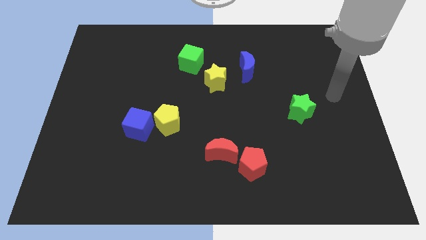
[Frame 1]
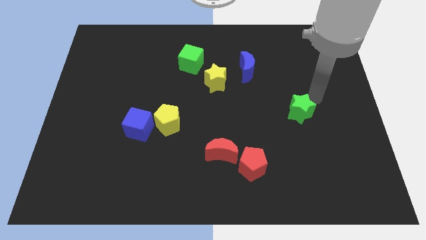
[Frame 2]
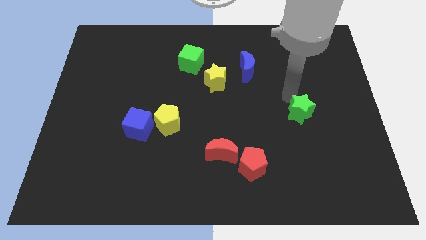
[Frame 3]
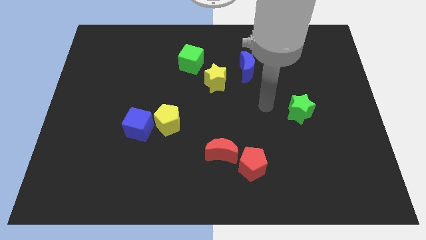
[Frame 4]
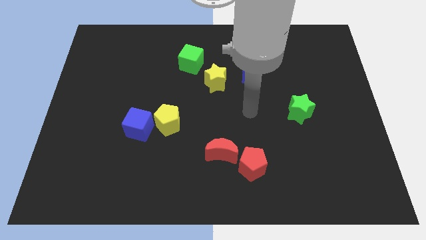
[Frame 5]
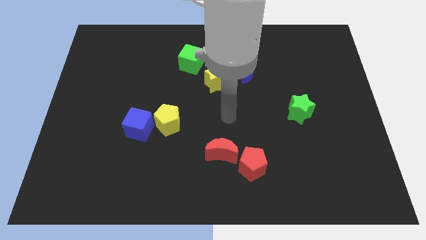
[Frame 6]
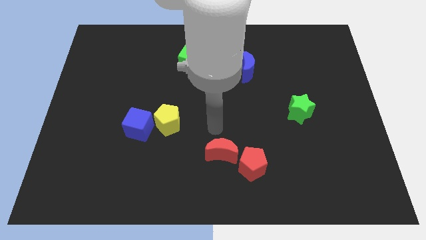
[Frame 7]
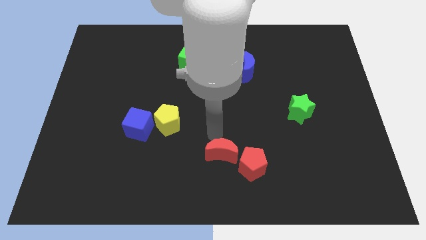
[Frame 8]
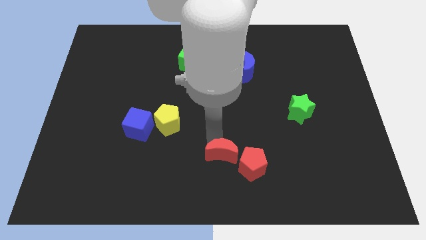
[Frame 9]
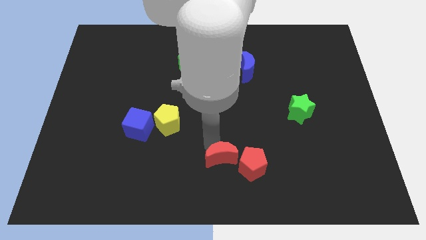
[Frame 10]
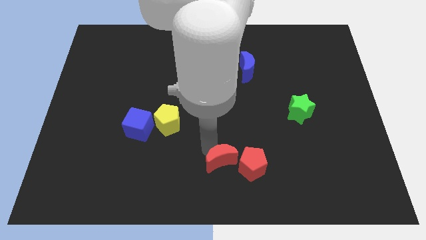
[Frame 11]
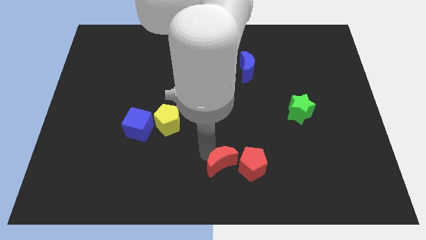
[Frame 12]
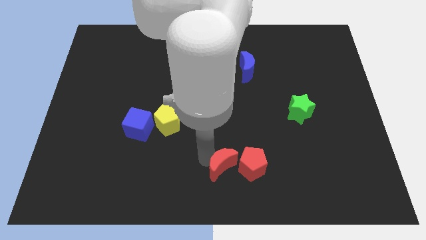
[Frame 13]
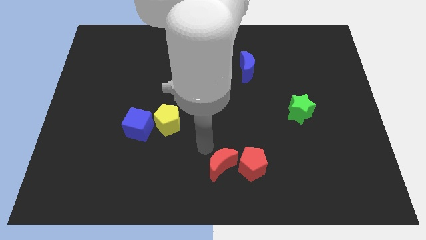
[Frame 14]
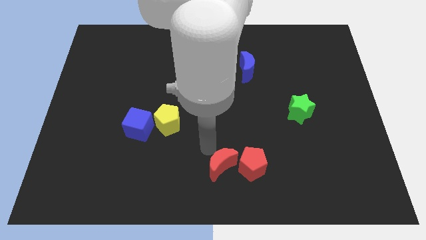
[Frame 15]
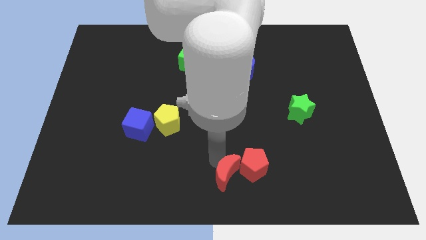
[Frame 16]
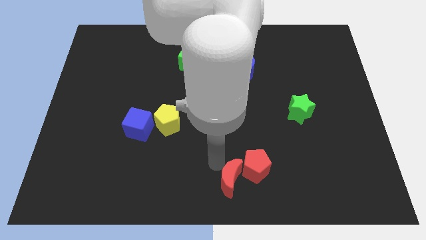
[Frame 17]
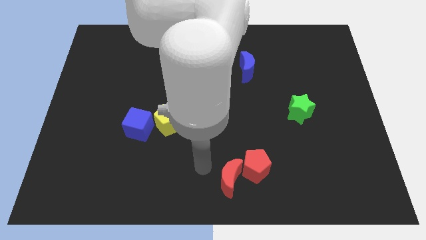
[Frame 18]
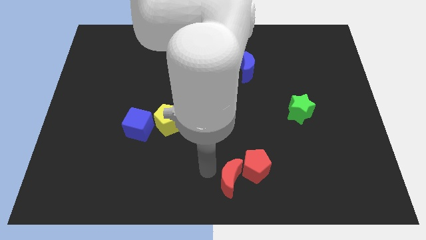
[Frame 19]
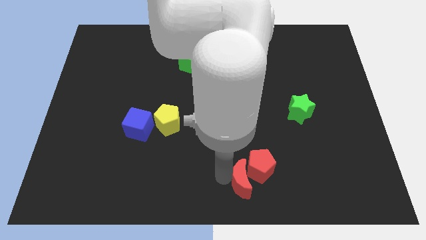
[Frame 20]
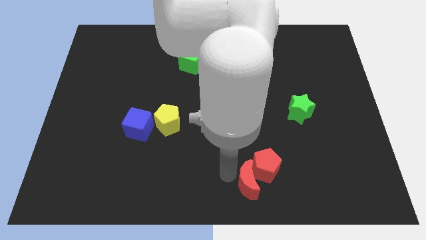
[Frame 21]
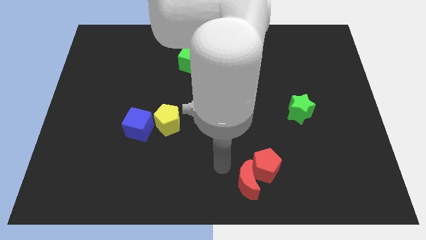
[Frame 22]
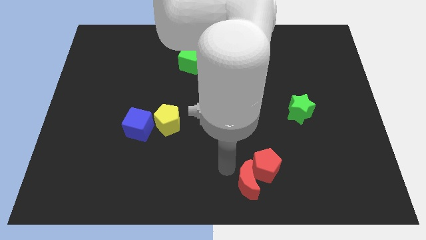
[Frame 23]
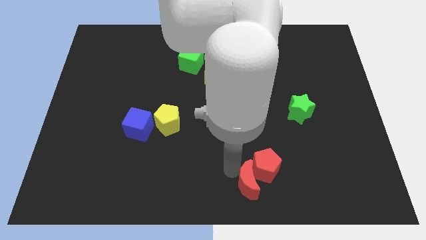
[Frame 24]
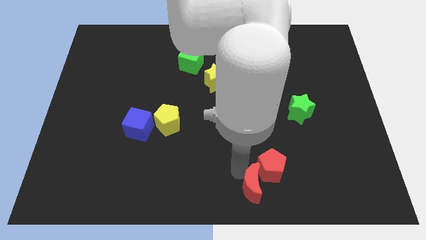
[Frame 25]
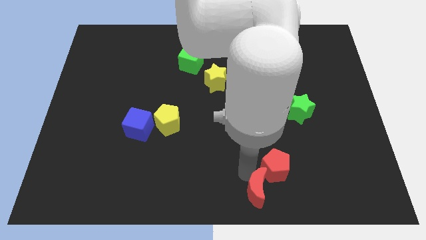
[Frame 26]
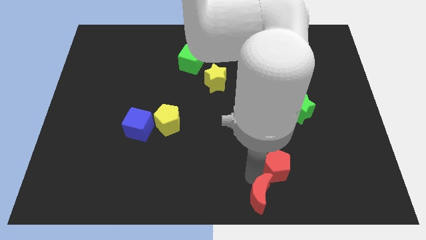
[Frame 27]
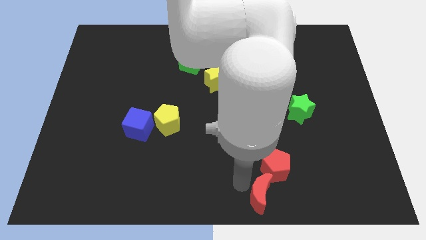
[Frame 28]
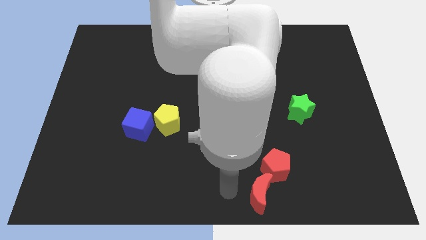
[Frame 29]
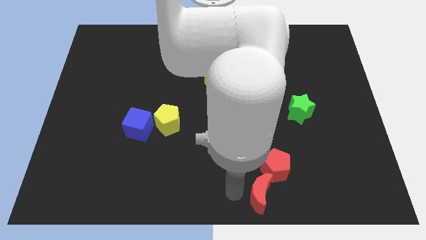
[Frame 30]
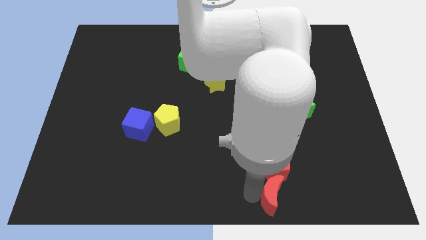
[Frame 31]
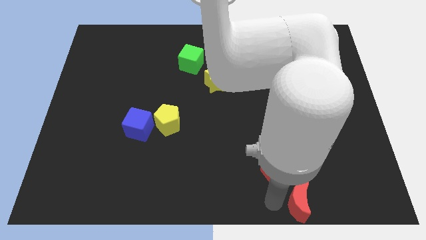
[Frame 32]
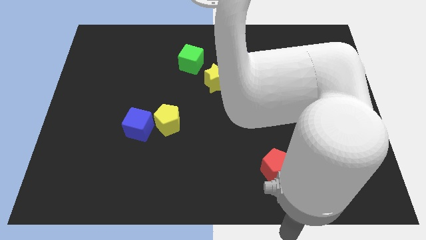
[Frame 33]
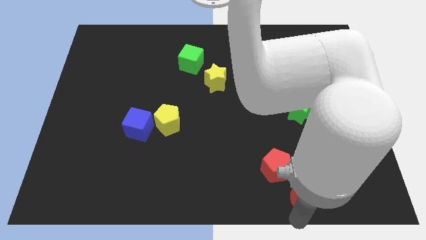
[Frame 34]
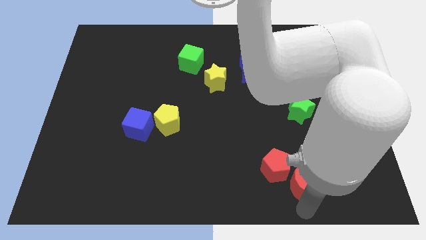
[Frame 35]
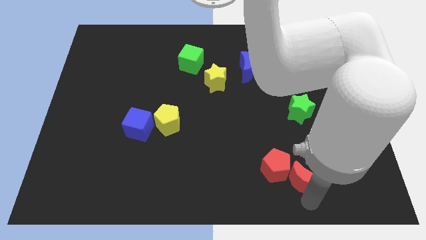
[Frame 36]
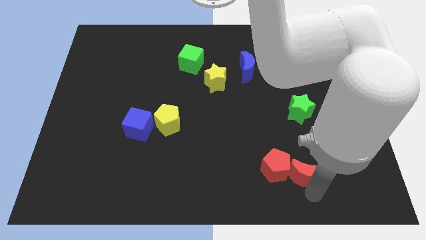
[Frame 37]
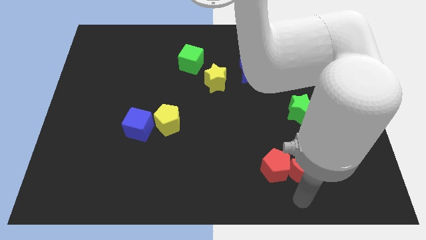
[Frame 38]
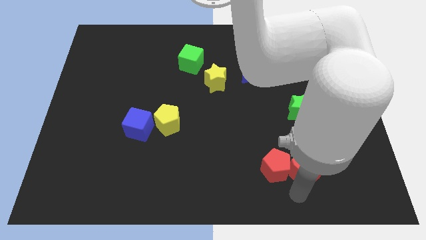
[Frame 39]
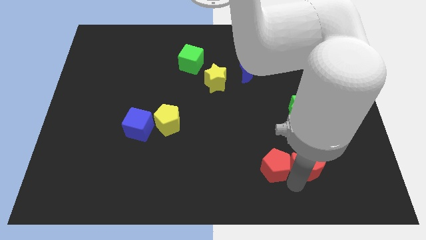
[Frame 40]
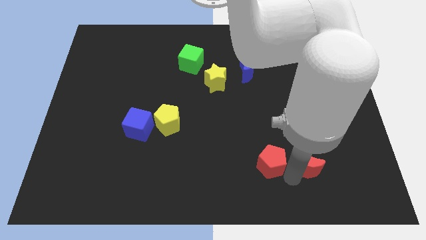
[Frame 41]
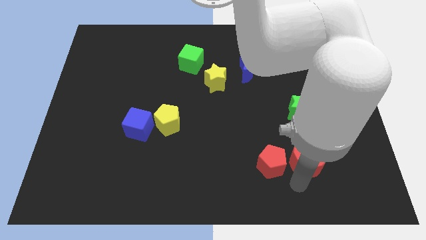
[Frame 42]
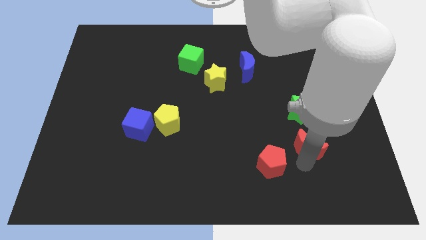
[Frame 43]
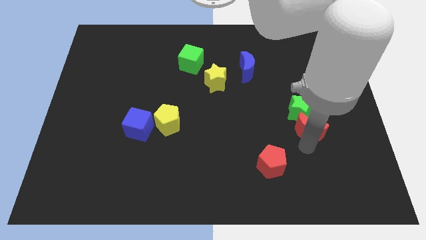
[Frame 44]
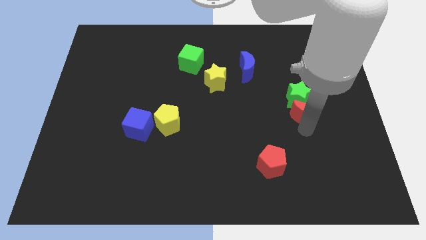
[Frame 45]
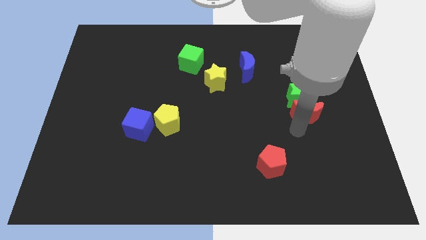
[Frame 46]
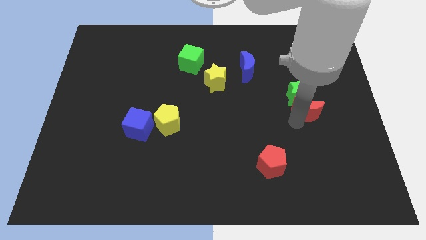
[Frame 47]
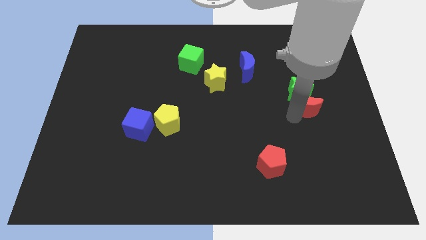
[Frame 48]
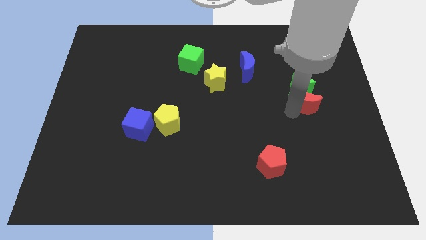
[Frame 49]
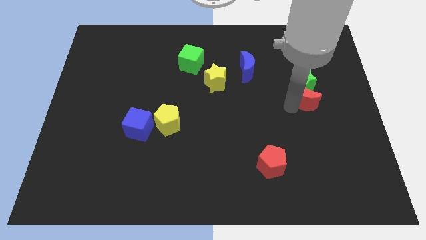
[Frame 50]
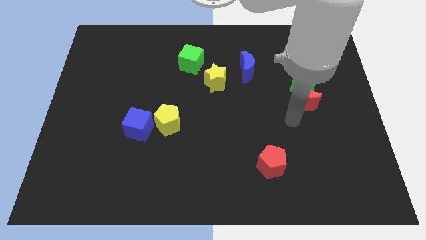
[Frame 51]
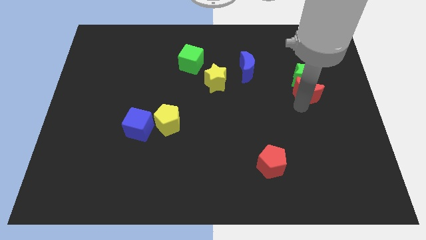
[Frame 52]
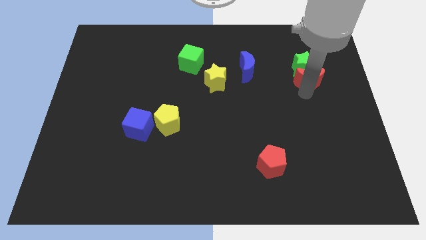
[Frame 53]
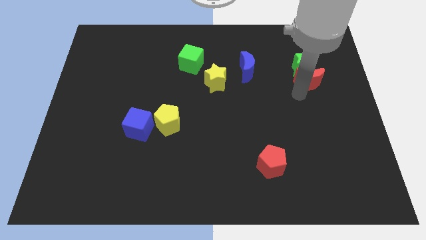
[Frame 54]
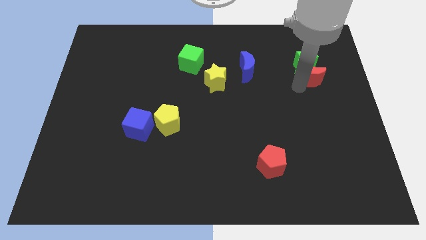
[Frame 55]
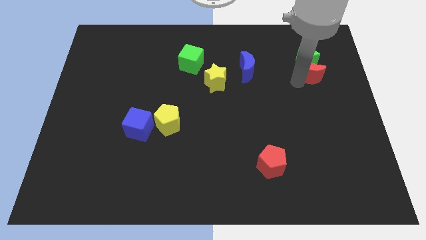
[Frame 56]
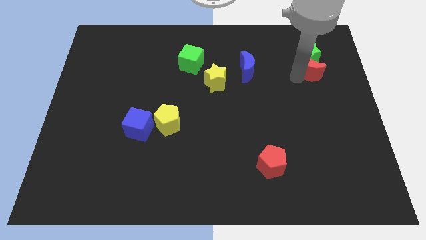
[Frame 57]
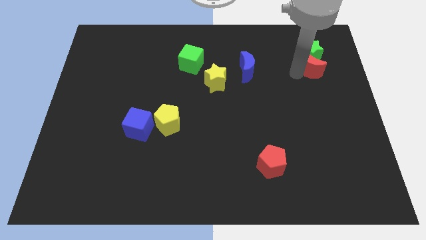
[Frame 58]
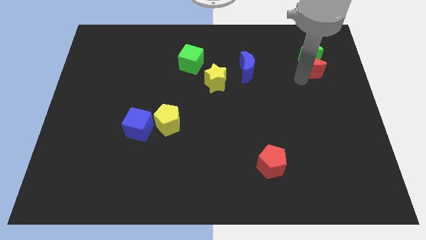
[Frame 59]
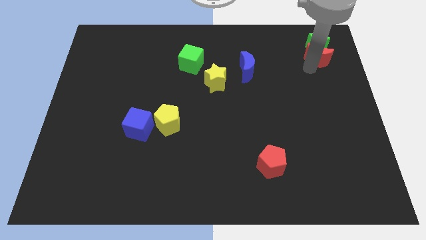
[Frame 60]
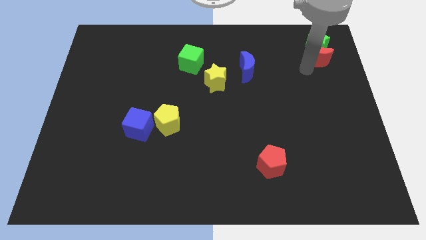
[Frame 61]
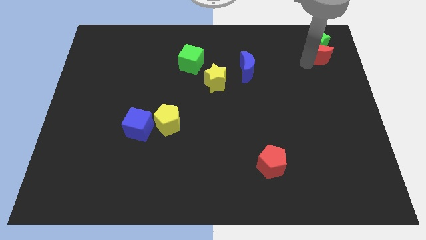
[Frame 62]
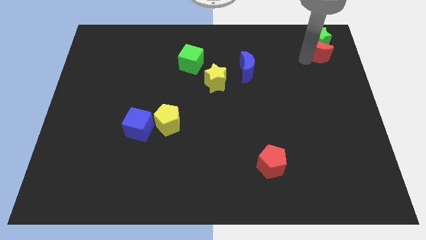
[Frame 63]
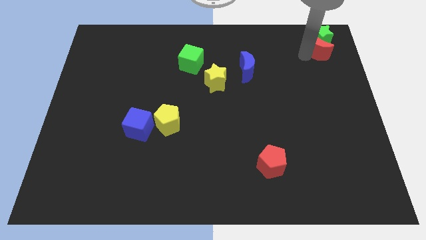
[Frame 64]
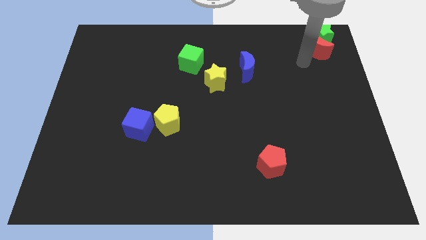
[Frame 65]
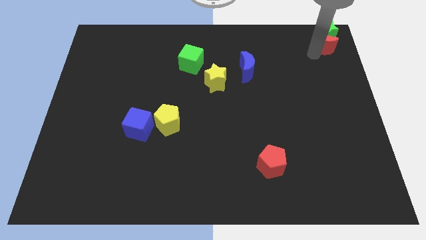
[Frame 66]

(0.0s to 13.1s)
move the red moon to the upper right corner
